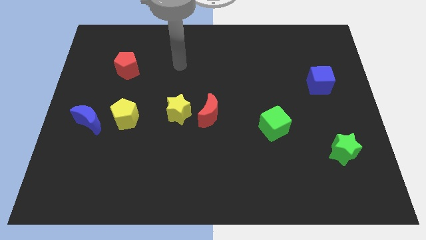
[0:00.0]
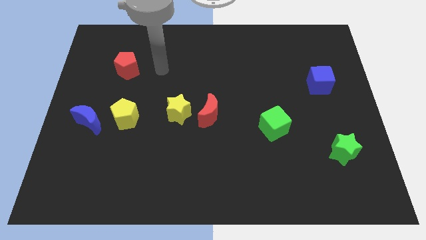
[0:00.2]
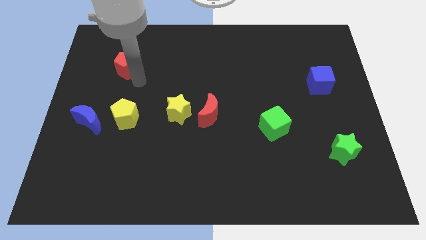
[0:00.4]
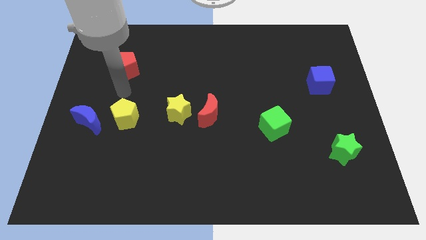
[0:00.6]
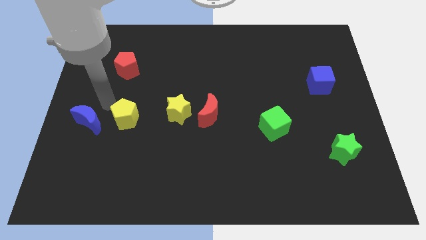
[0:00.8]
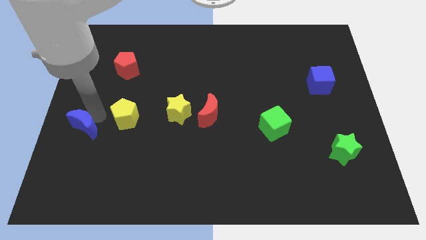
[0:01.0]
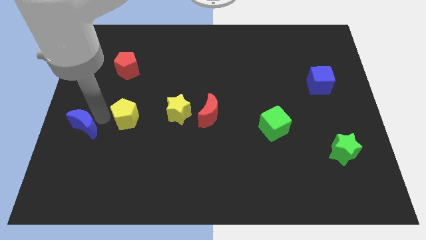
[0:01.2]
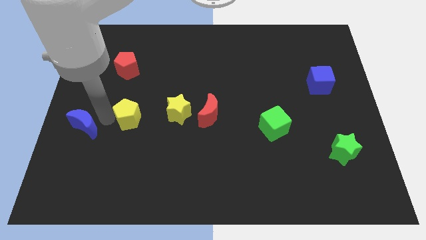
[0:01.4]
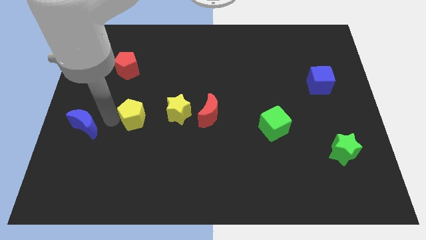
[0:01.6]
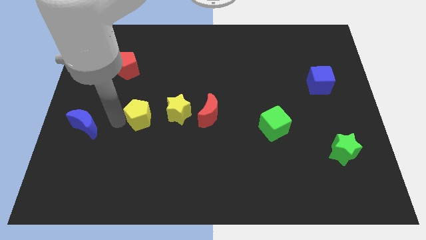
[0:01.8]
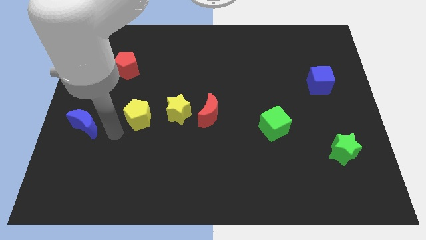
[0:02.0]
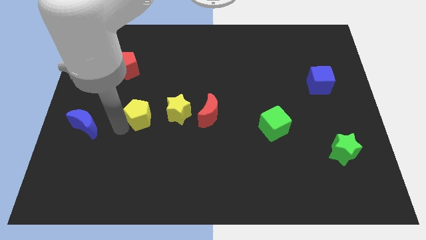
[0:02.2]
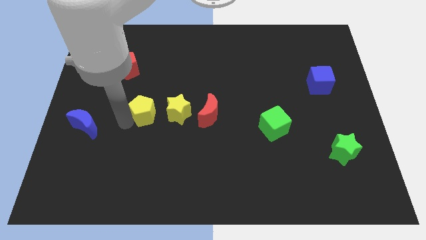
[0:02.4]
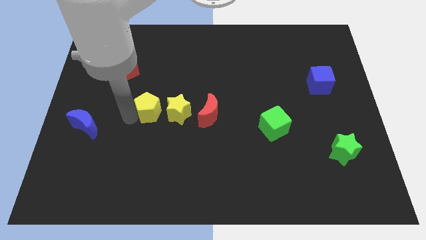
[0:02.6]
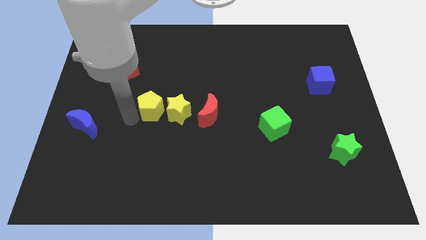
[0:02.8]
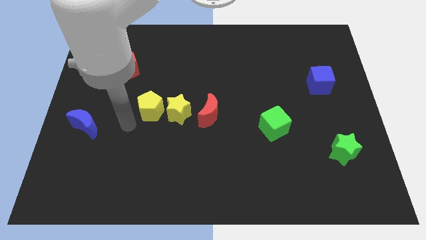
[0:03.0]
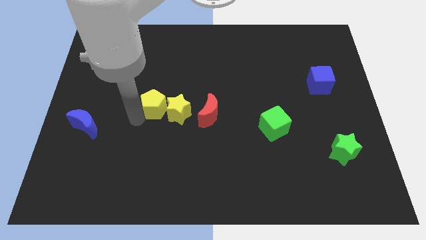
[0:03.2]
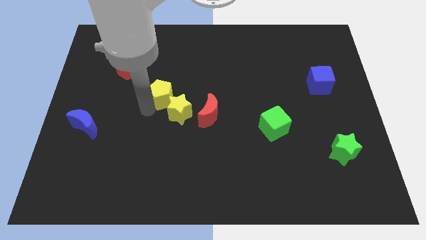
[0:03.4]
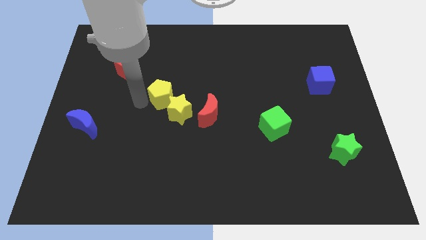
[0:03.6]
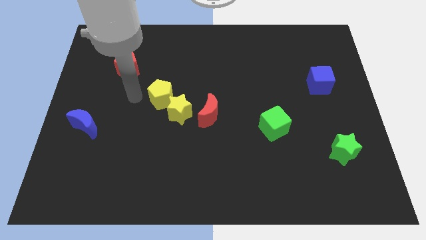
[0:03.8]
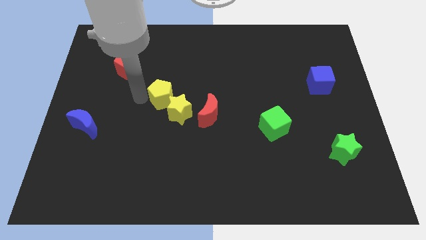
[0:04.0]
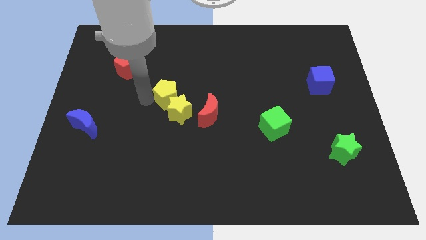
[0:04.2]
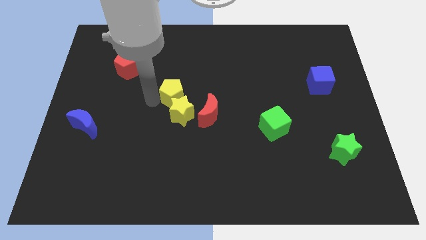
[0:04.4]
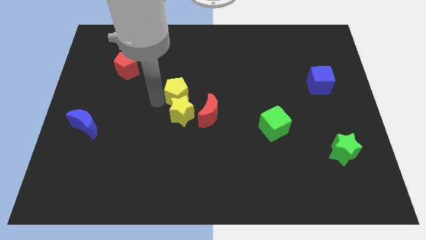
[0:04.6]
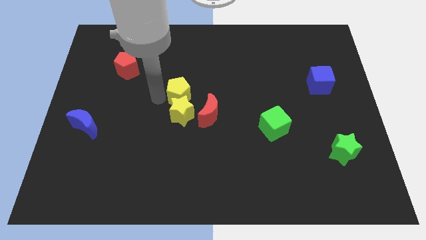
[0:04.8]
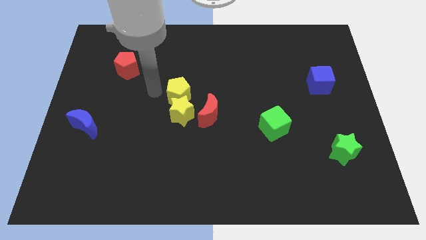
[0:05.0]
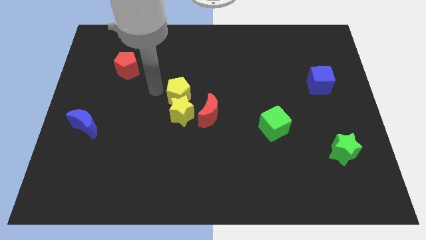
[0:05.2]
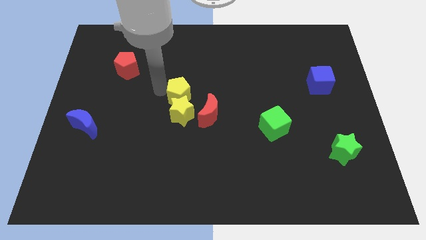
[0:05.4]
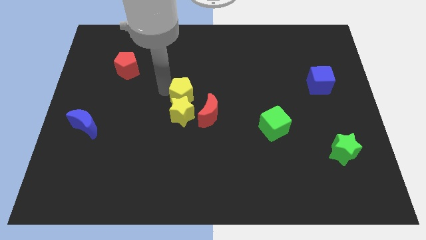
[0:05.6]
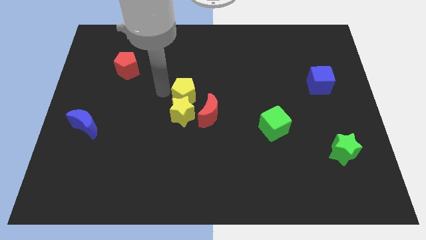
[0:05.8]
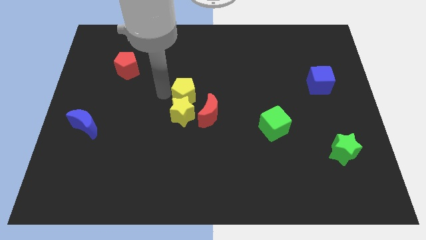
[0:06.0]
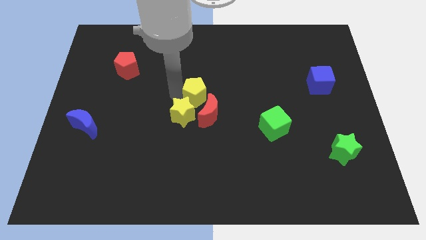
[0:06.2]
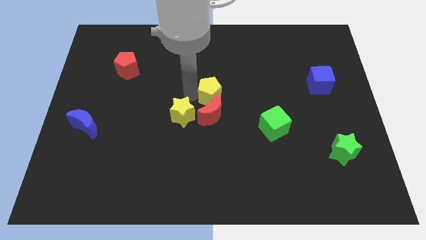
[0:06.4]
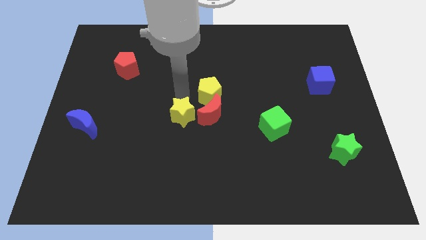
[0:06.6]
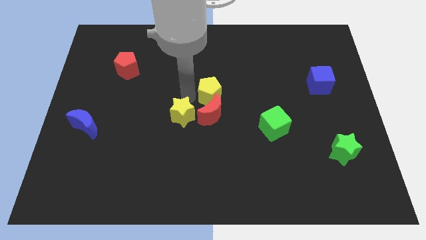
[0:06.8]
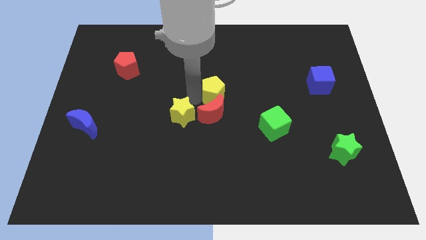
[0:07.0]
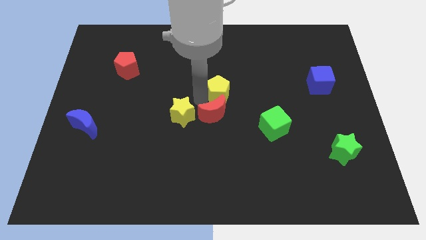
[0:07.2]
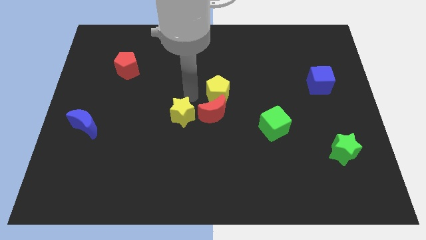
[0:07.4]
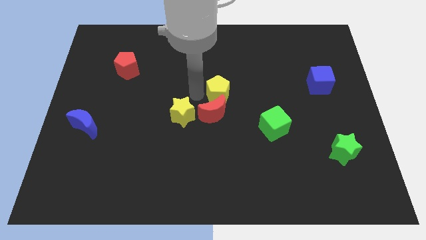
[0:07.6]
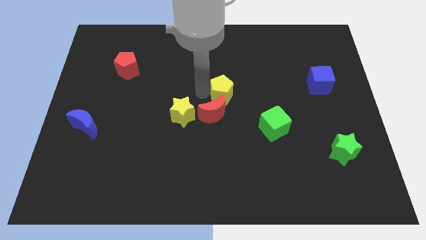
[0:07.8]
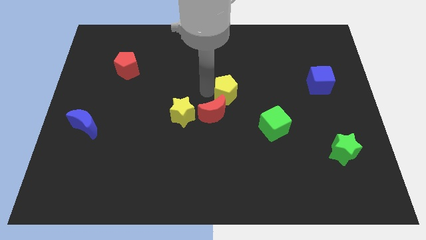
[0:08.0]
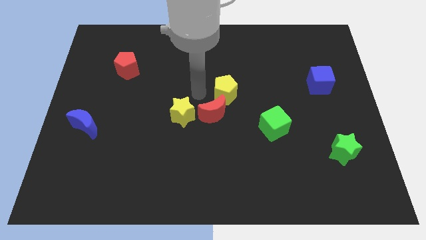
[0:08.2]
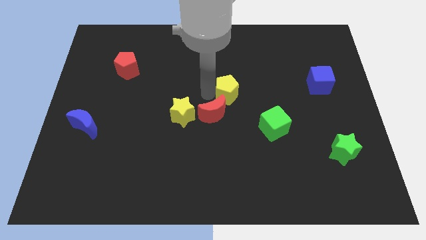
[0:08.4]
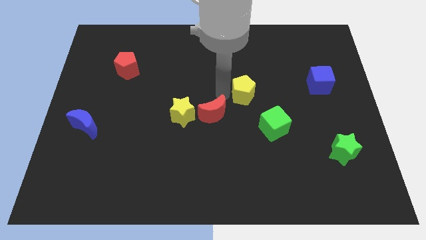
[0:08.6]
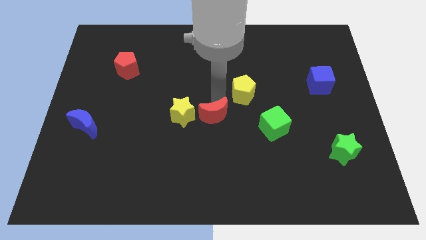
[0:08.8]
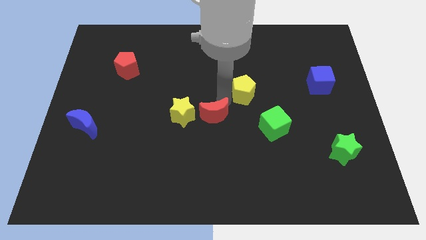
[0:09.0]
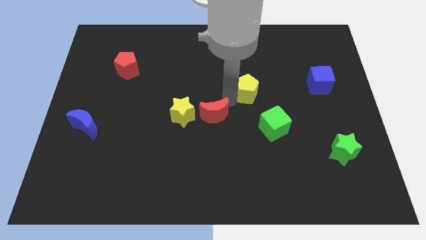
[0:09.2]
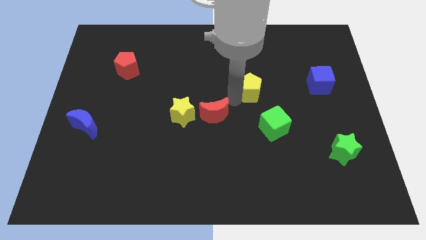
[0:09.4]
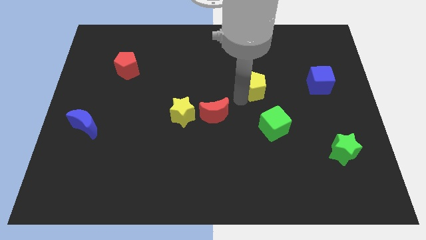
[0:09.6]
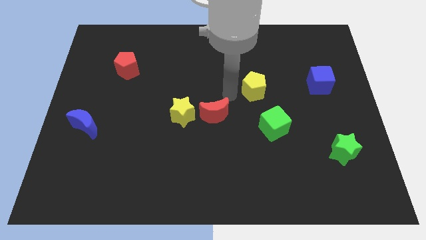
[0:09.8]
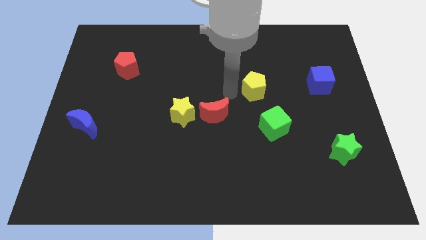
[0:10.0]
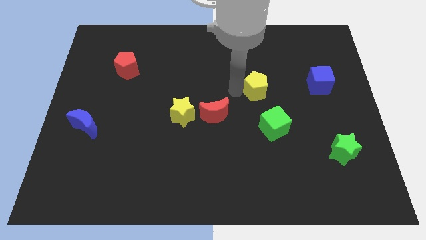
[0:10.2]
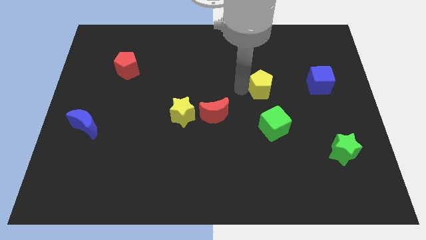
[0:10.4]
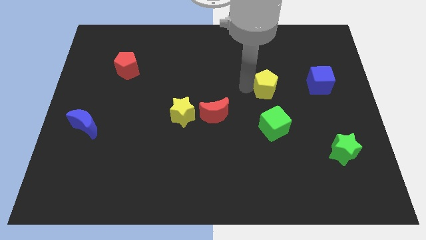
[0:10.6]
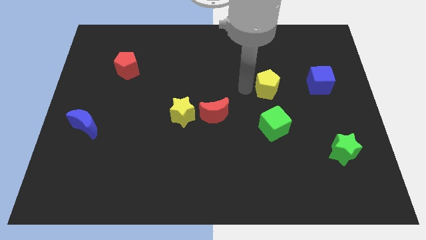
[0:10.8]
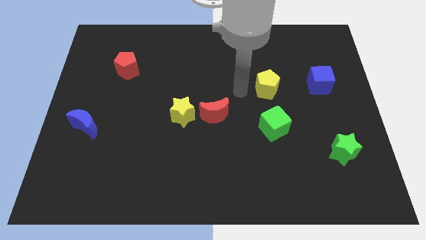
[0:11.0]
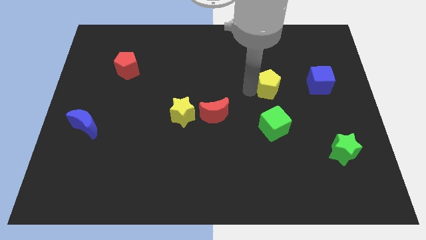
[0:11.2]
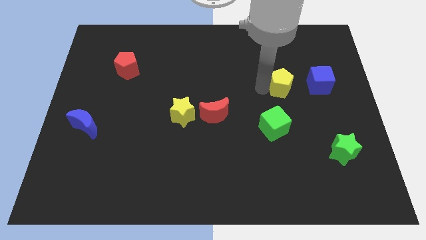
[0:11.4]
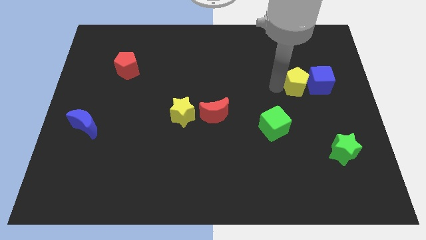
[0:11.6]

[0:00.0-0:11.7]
slide the yellow pentagon close to the blue cube
